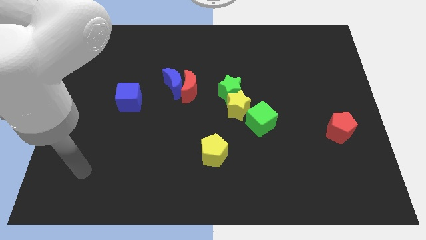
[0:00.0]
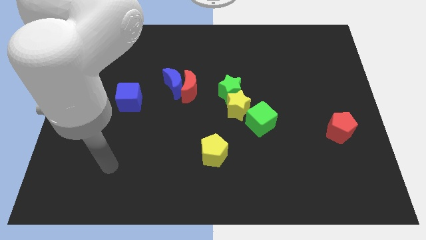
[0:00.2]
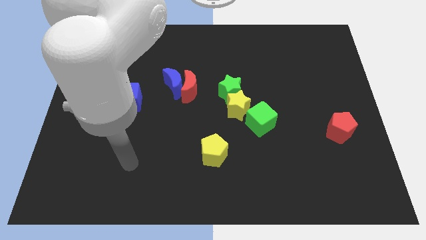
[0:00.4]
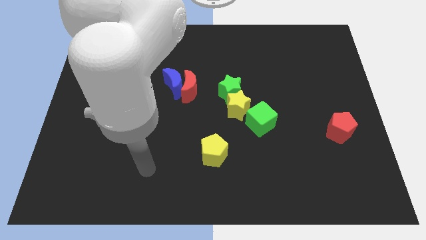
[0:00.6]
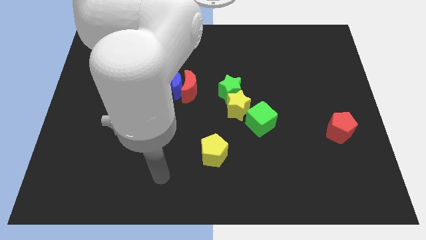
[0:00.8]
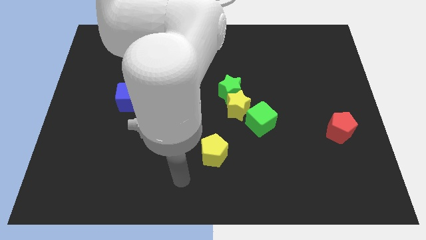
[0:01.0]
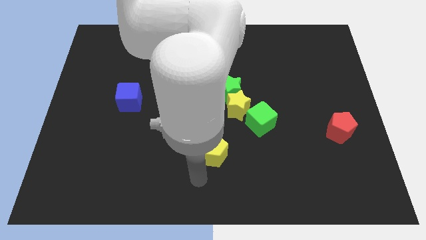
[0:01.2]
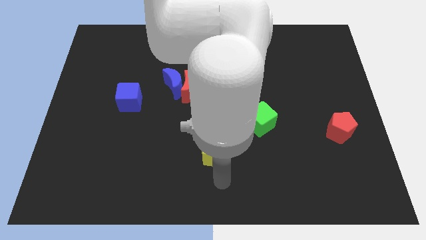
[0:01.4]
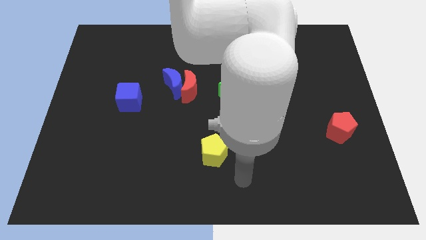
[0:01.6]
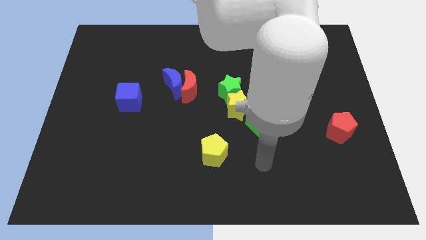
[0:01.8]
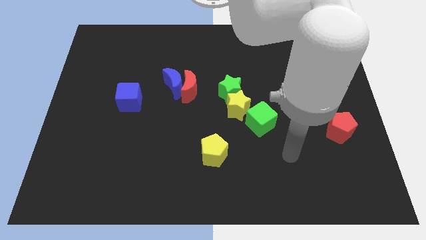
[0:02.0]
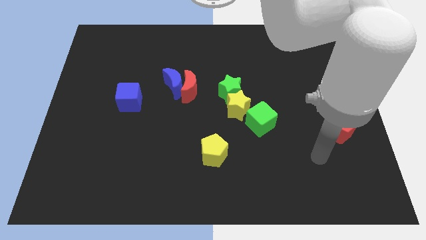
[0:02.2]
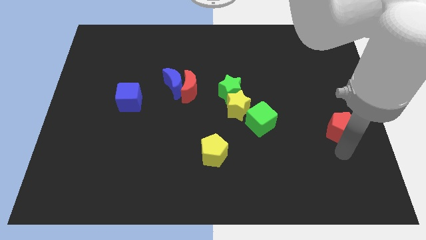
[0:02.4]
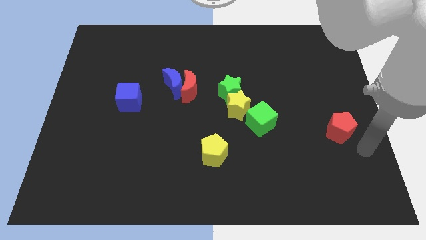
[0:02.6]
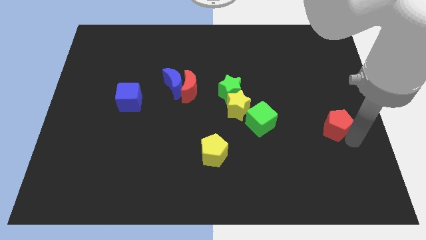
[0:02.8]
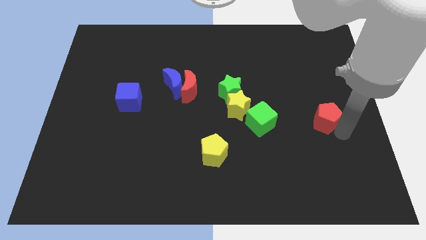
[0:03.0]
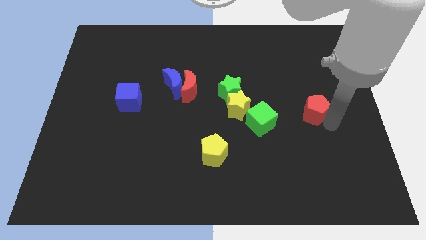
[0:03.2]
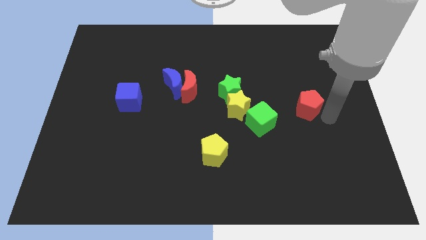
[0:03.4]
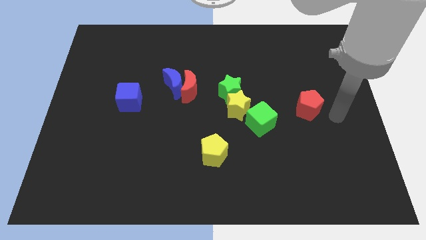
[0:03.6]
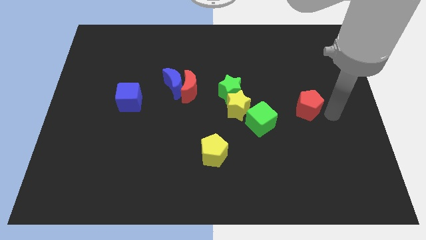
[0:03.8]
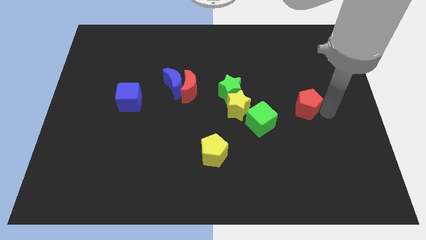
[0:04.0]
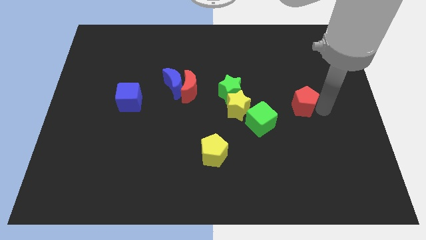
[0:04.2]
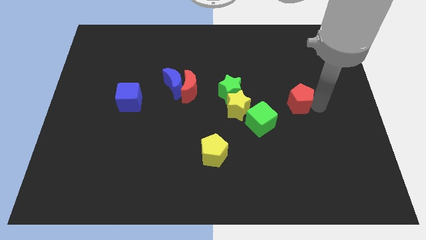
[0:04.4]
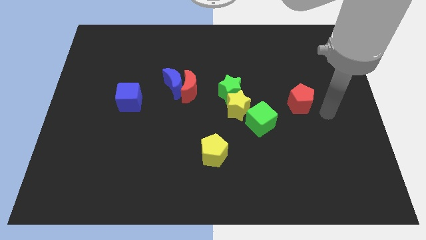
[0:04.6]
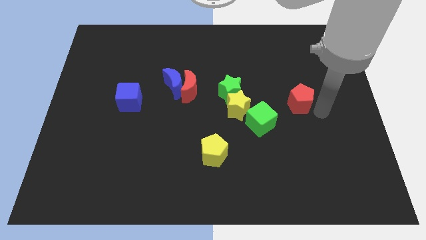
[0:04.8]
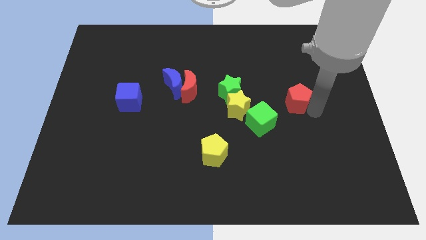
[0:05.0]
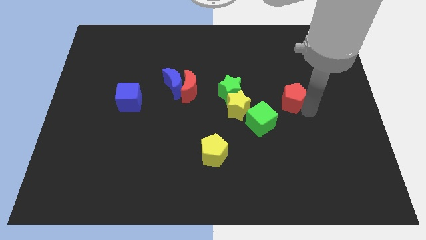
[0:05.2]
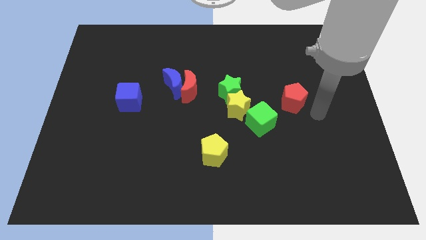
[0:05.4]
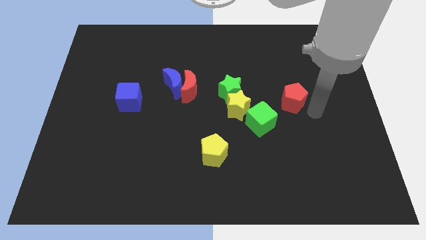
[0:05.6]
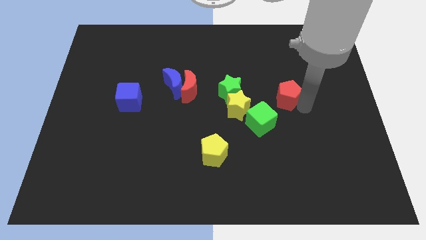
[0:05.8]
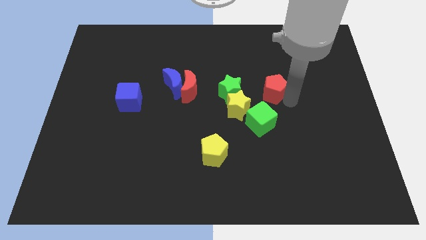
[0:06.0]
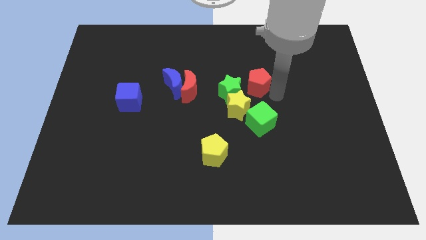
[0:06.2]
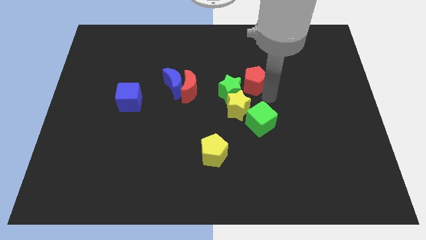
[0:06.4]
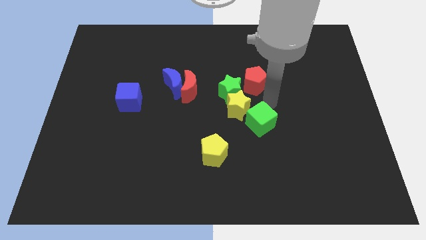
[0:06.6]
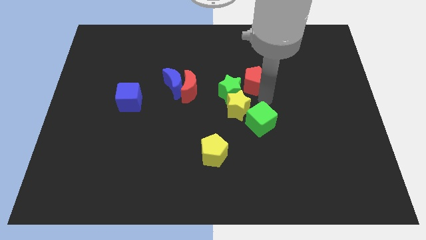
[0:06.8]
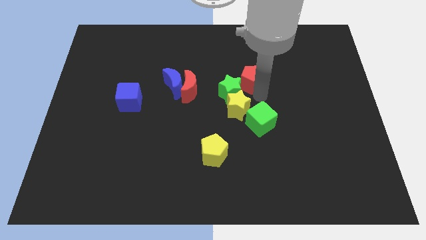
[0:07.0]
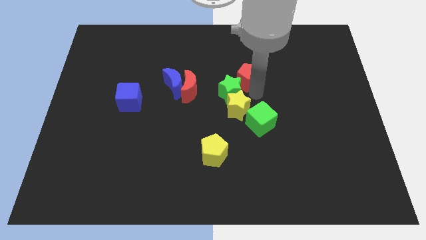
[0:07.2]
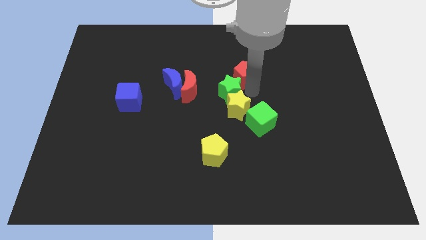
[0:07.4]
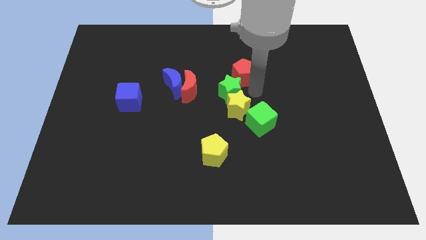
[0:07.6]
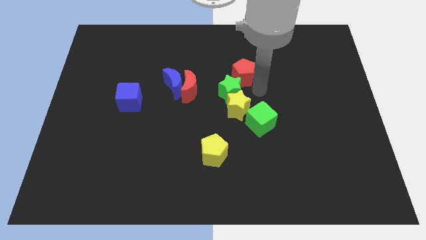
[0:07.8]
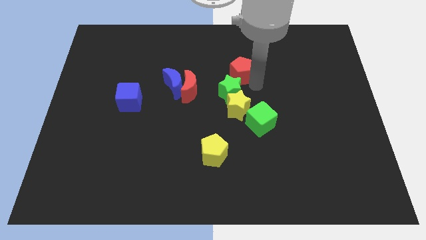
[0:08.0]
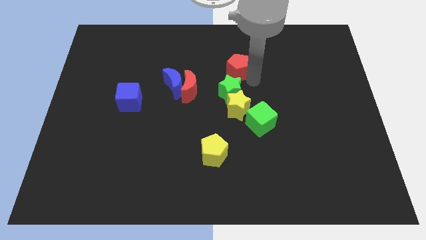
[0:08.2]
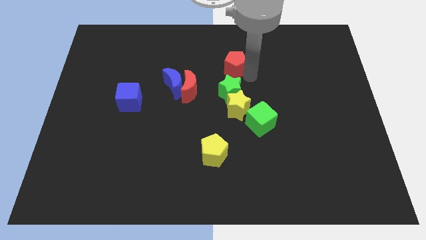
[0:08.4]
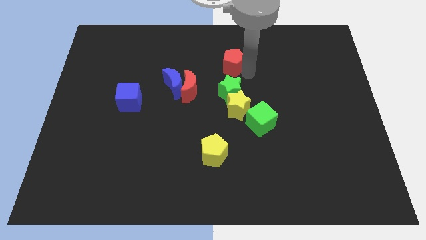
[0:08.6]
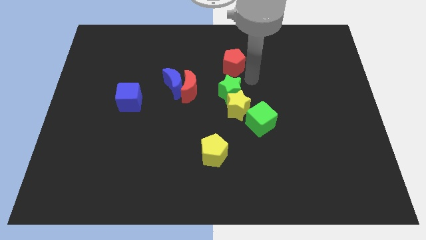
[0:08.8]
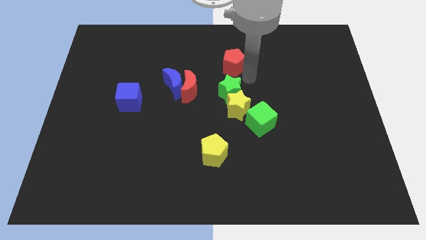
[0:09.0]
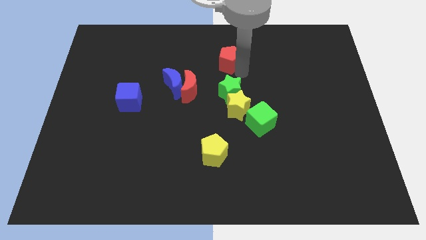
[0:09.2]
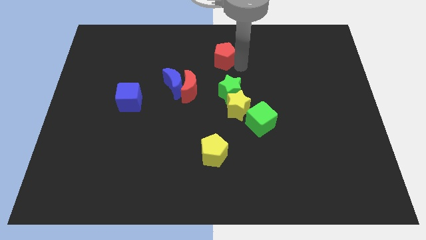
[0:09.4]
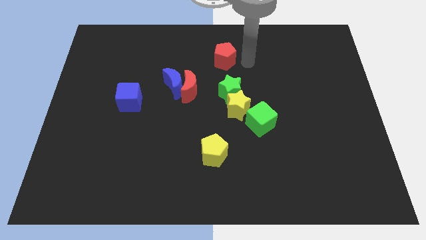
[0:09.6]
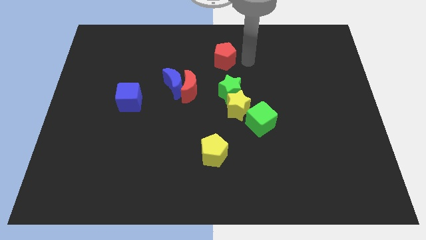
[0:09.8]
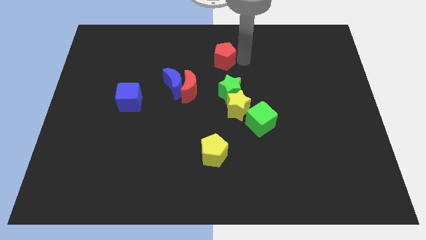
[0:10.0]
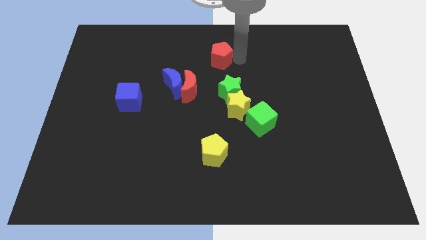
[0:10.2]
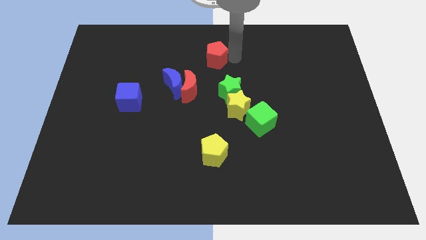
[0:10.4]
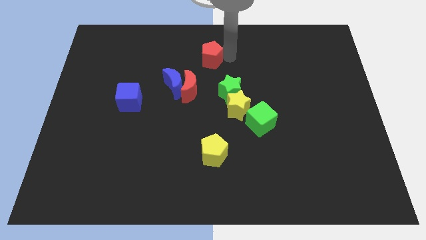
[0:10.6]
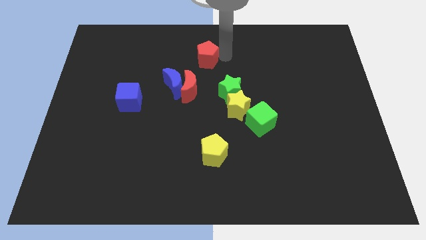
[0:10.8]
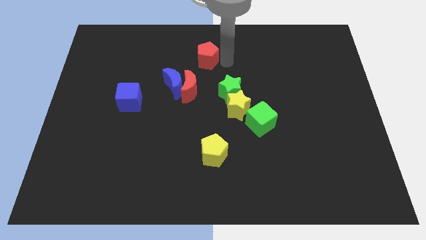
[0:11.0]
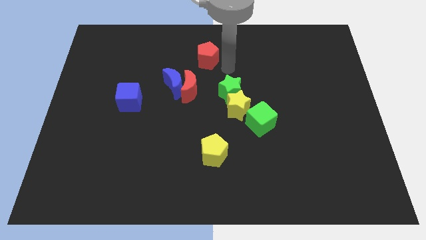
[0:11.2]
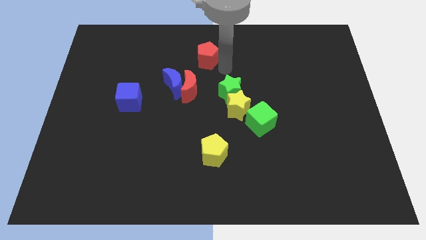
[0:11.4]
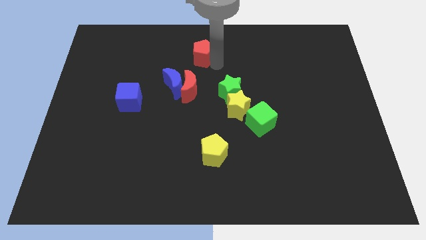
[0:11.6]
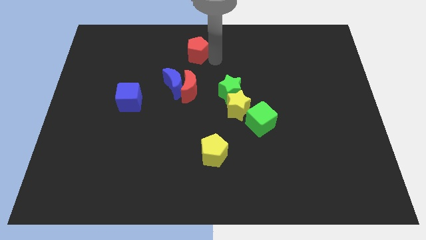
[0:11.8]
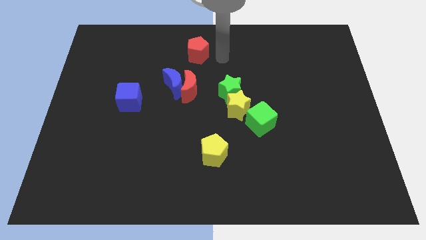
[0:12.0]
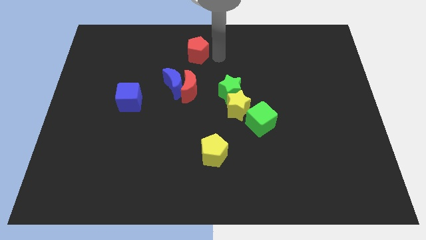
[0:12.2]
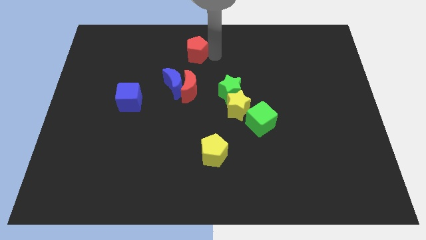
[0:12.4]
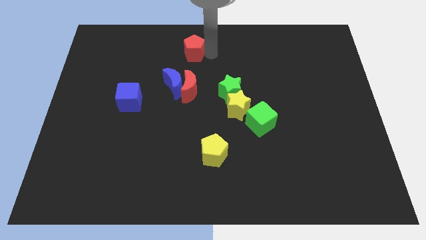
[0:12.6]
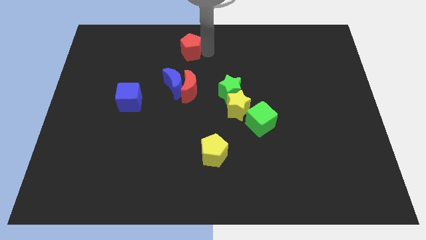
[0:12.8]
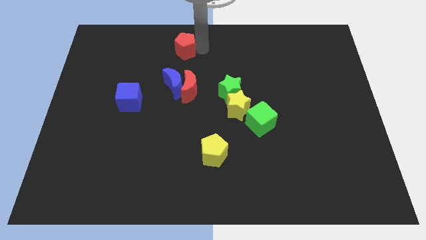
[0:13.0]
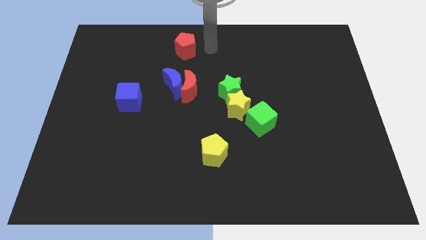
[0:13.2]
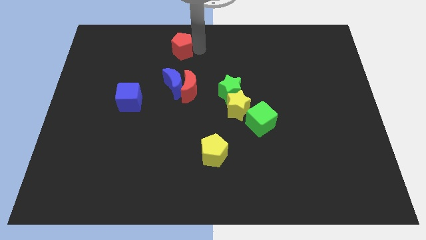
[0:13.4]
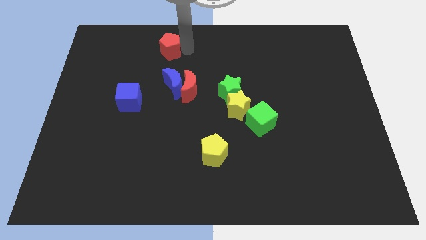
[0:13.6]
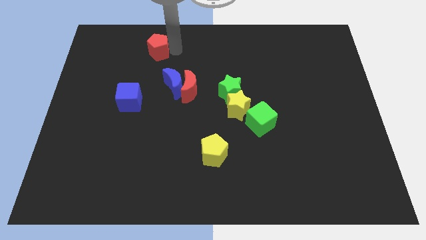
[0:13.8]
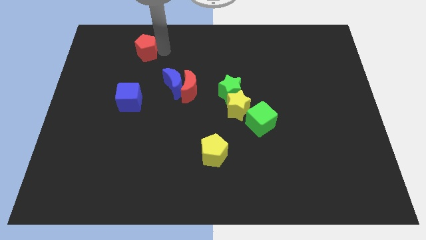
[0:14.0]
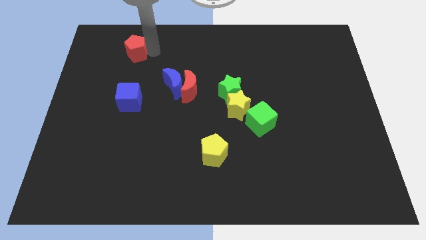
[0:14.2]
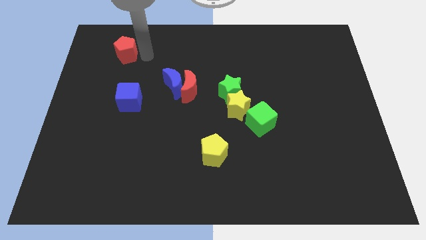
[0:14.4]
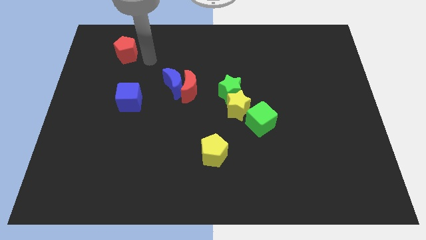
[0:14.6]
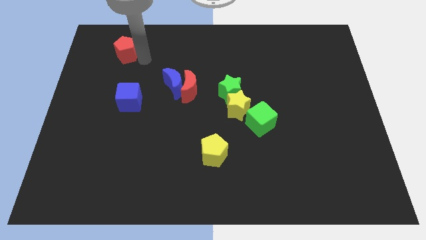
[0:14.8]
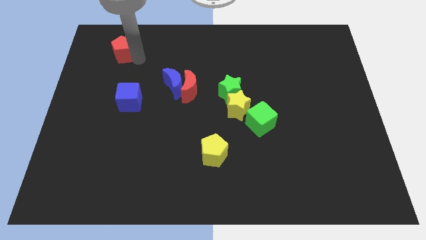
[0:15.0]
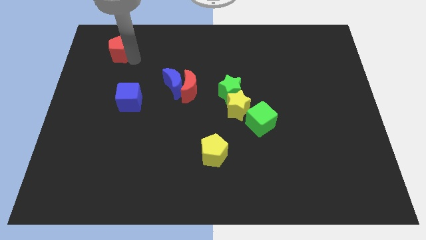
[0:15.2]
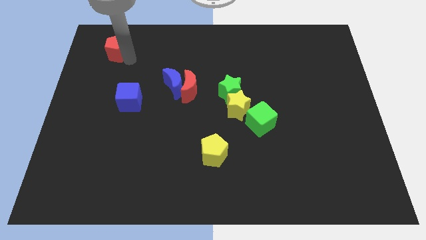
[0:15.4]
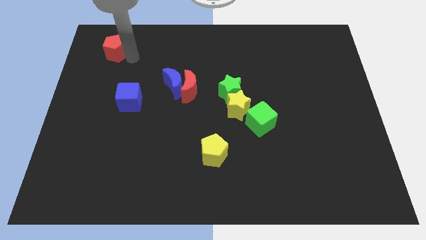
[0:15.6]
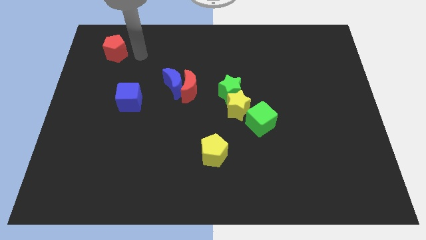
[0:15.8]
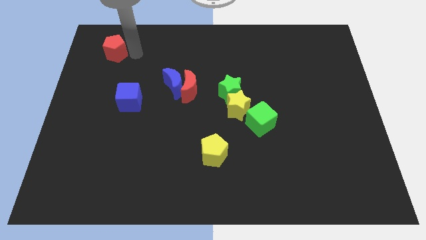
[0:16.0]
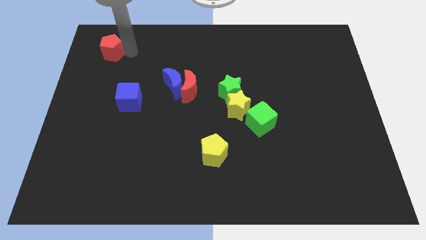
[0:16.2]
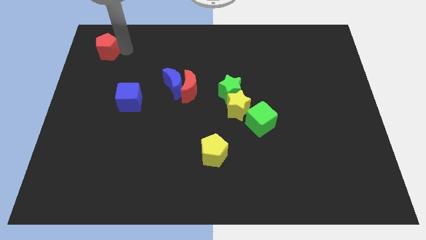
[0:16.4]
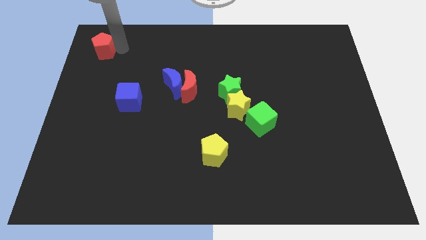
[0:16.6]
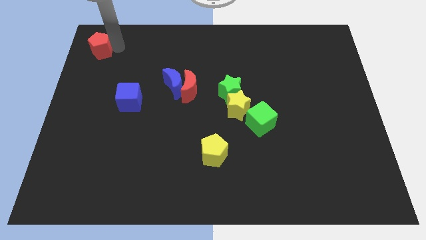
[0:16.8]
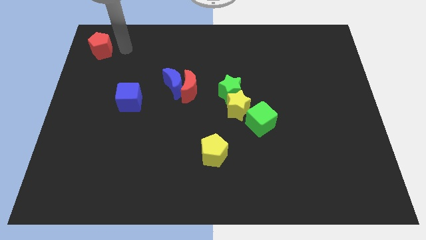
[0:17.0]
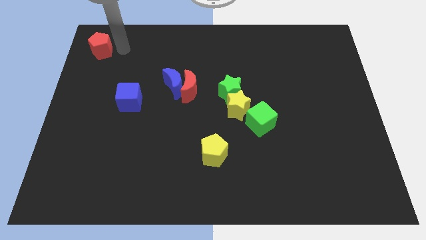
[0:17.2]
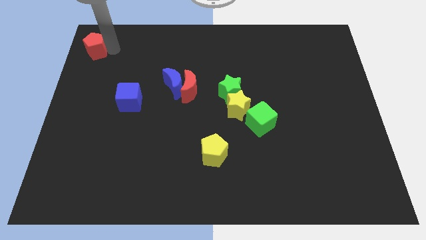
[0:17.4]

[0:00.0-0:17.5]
move the red pentagon to the upper left corner
